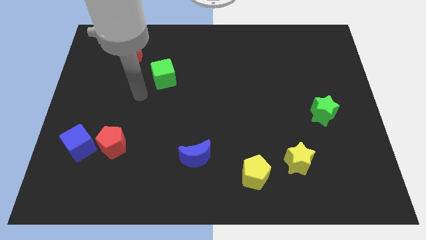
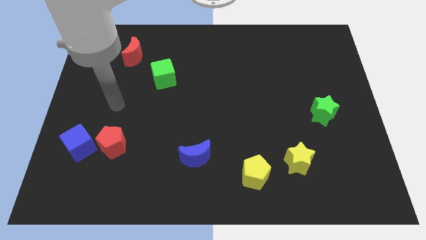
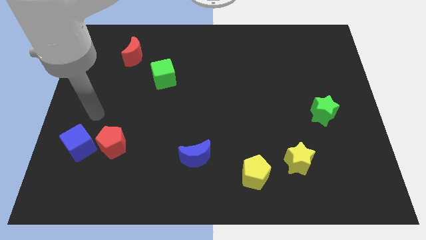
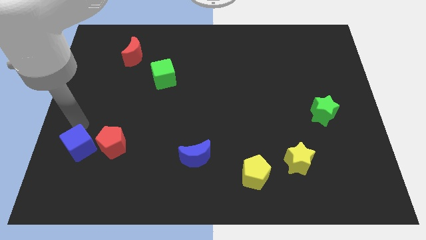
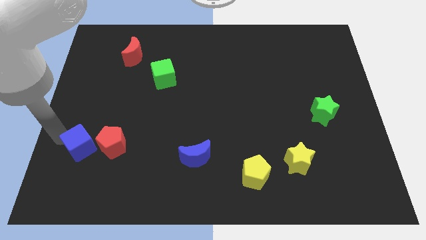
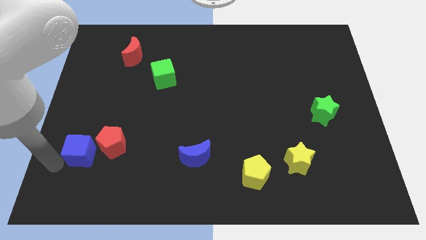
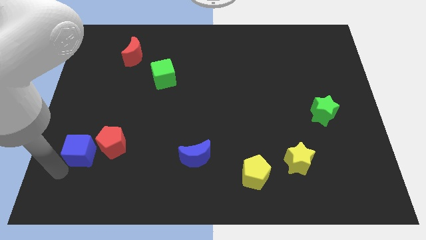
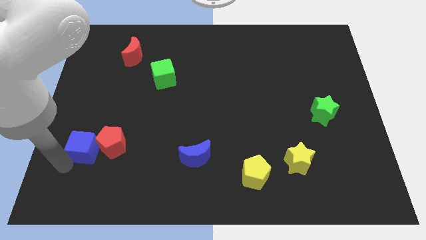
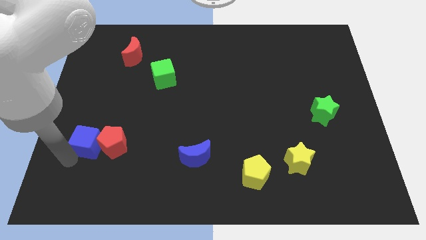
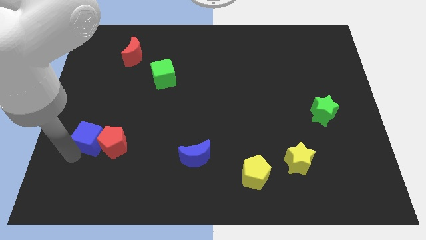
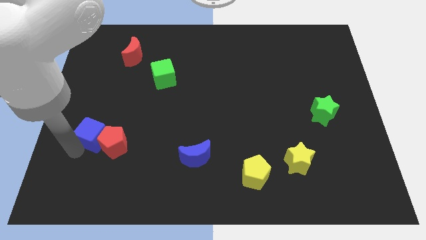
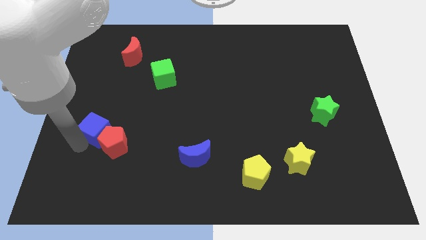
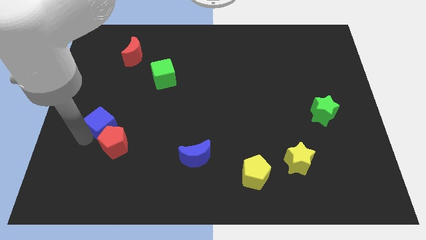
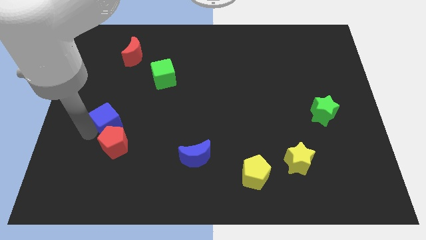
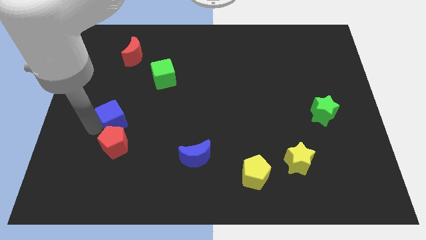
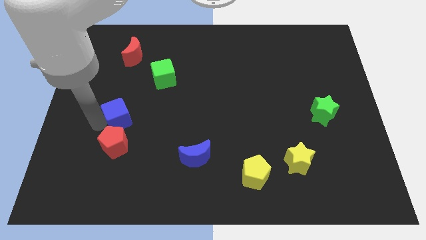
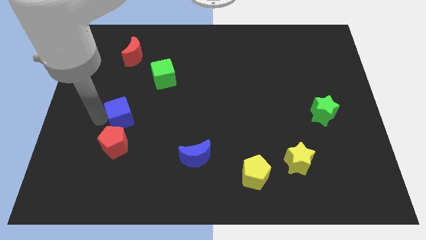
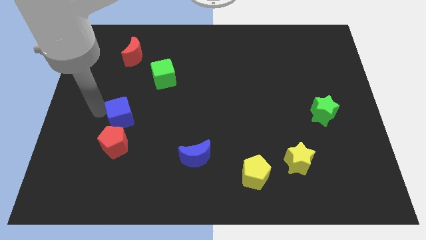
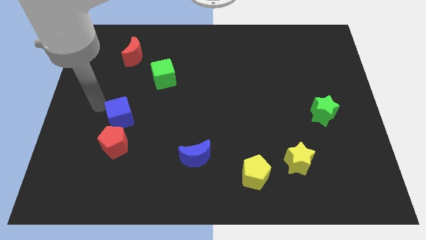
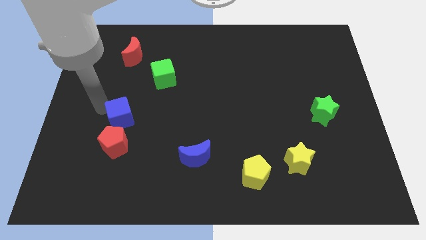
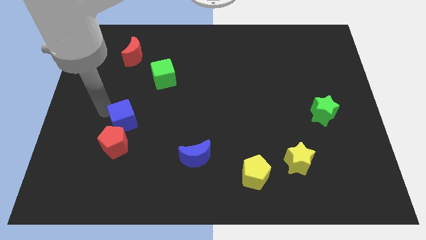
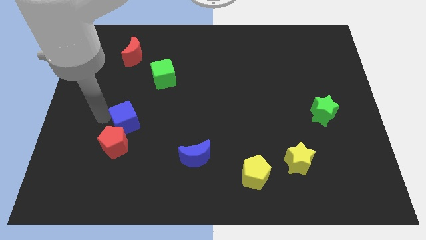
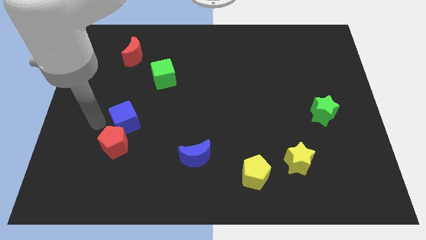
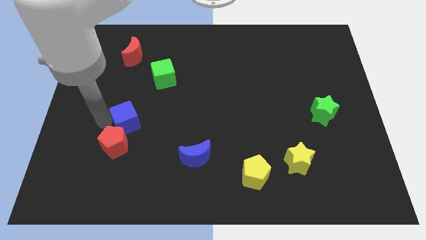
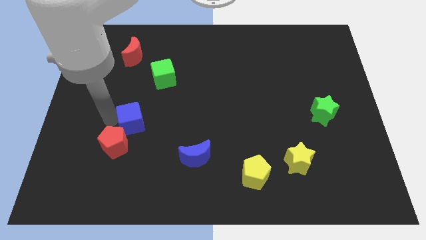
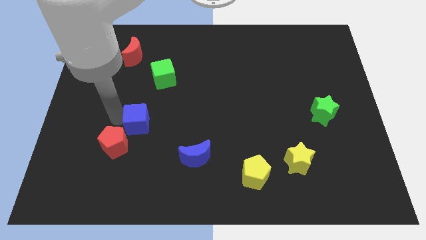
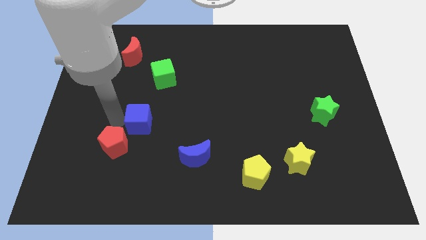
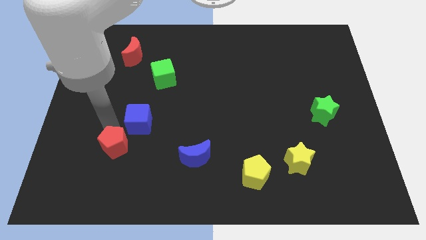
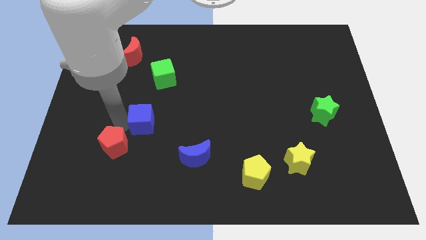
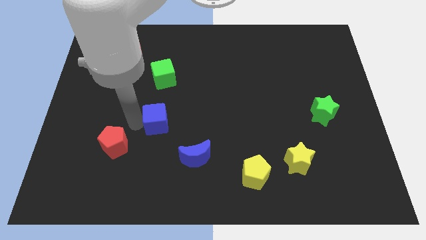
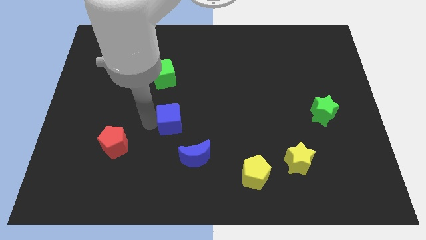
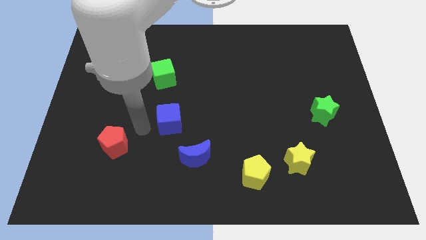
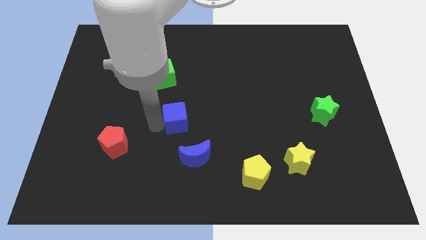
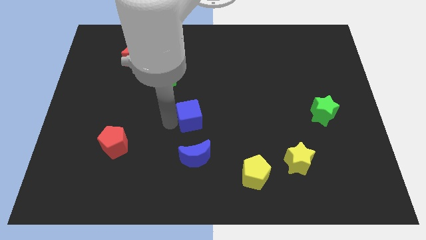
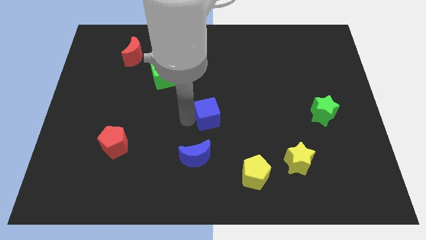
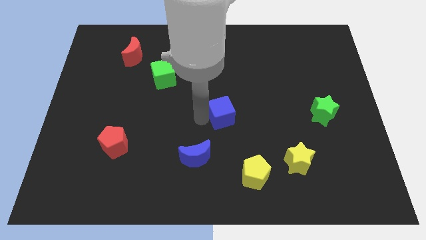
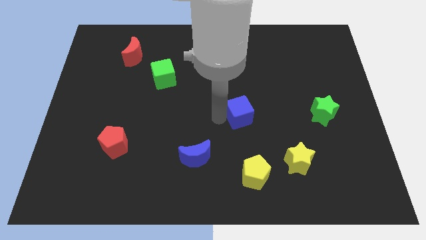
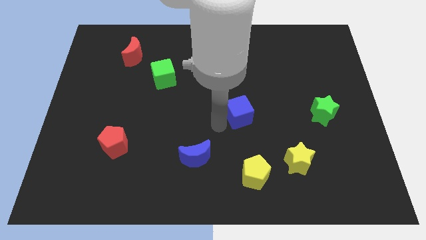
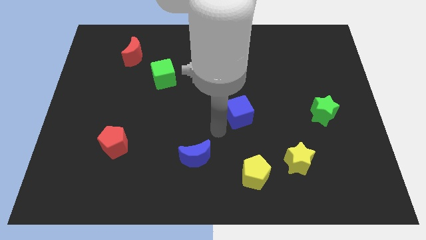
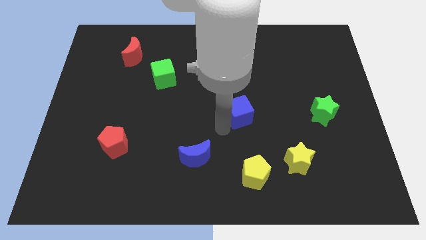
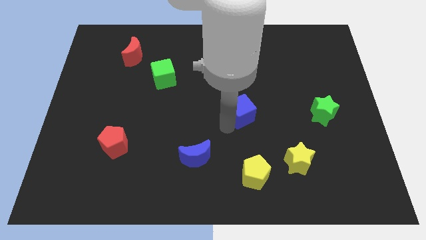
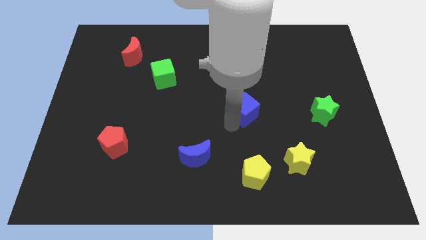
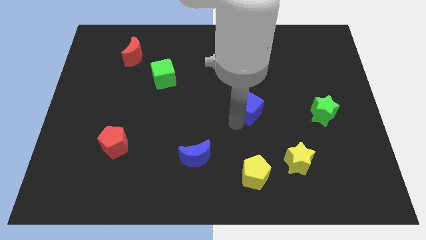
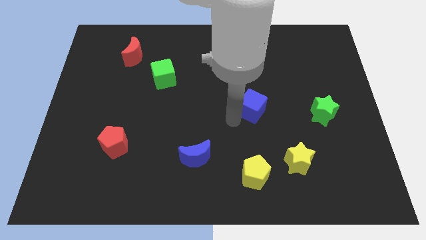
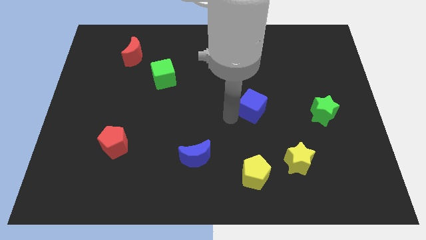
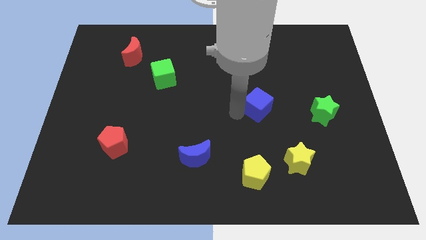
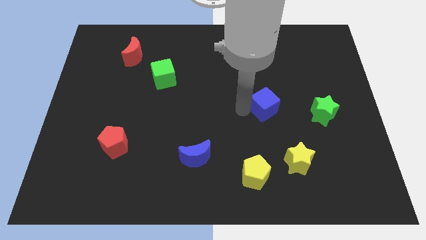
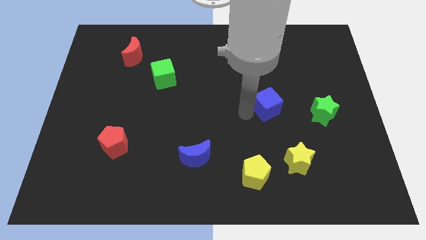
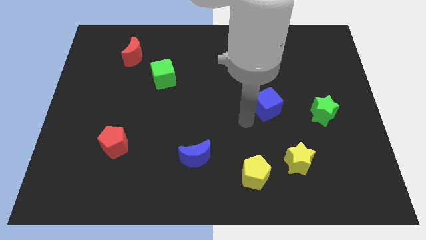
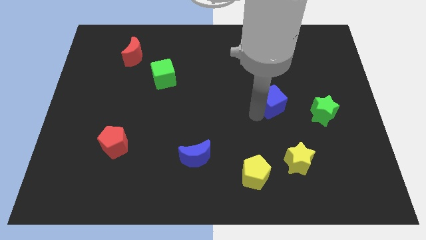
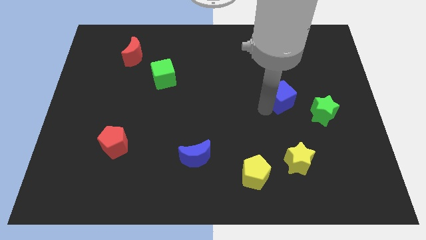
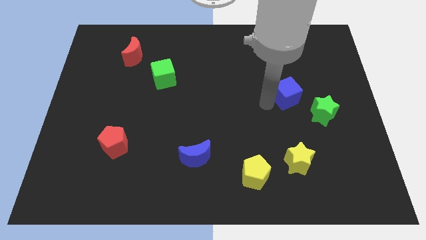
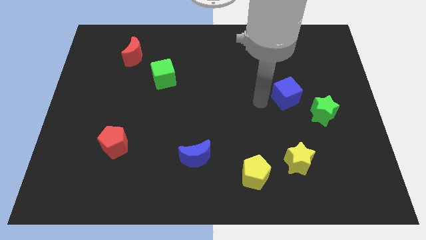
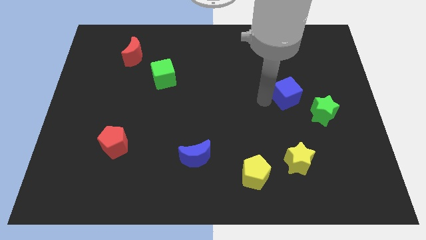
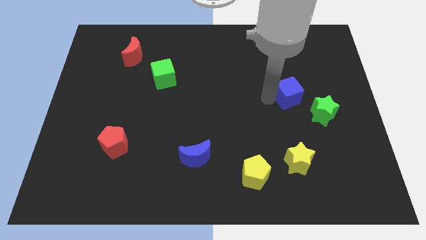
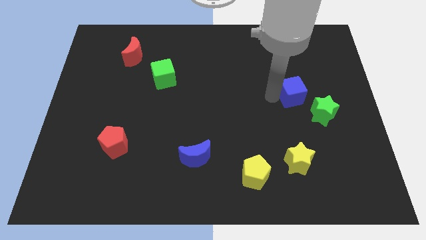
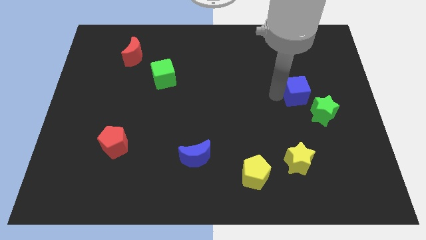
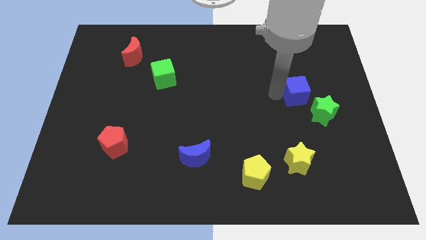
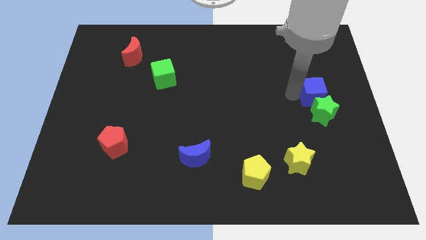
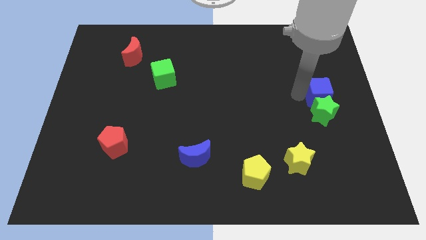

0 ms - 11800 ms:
slide the blue cube to the right side

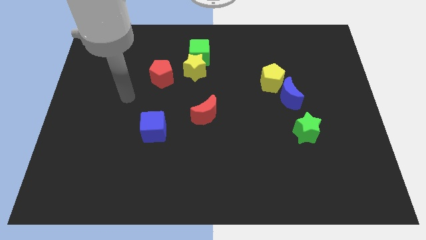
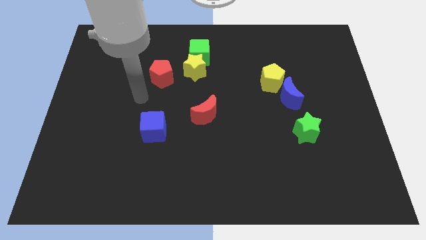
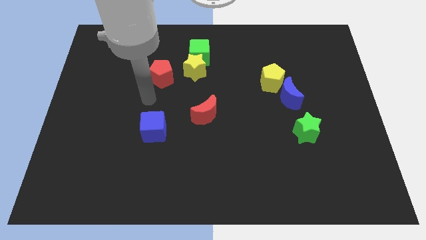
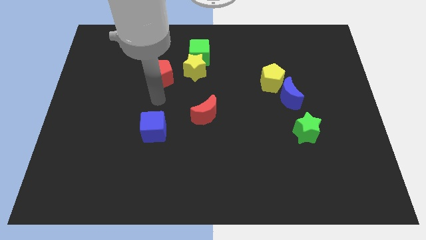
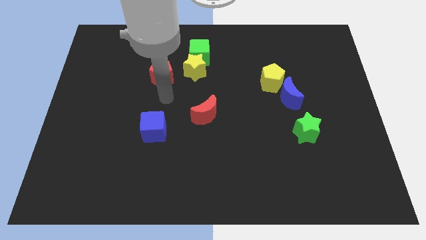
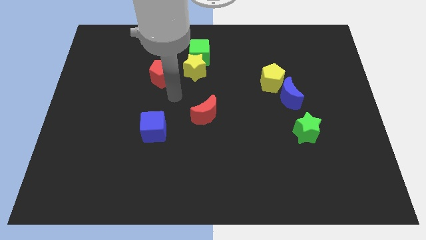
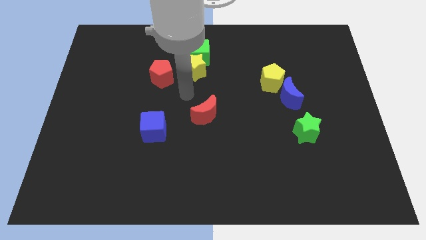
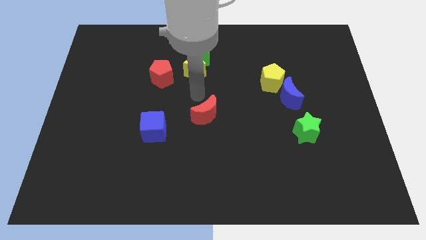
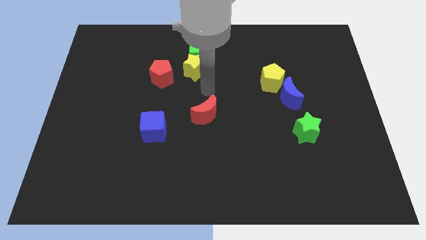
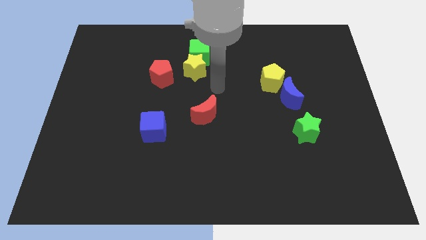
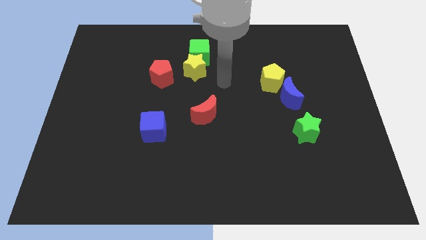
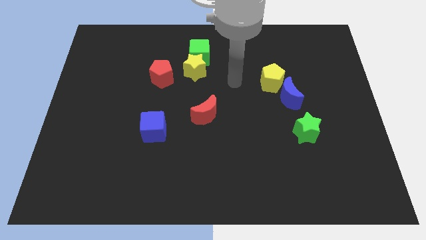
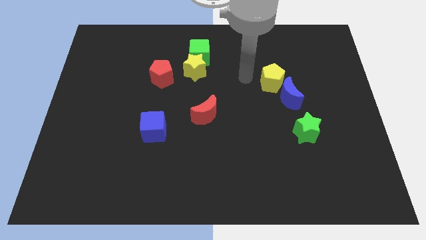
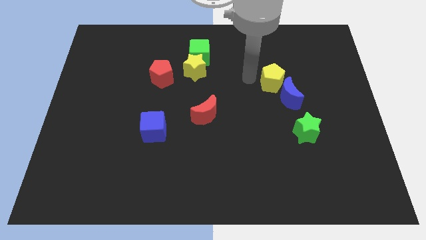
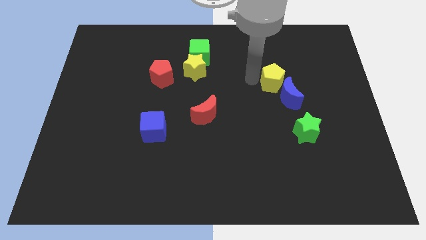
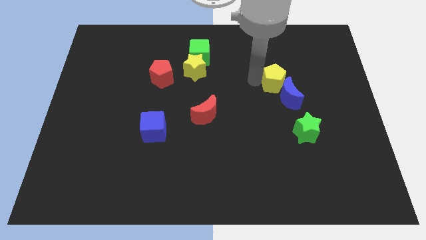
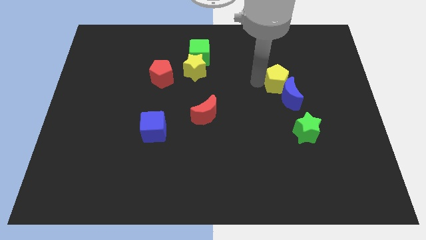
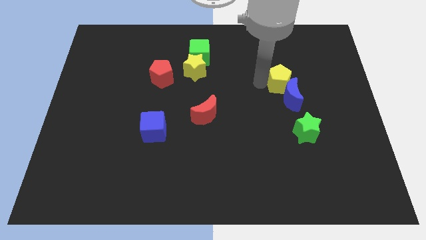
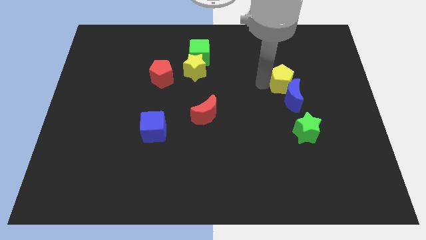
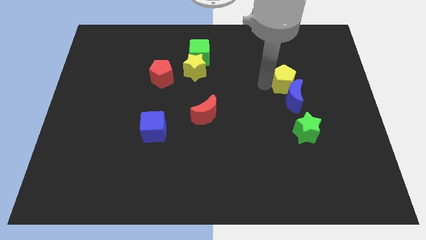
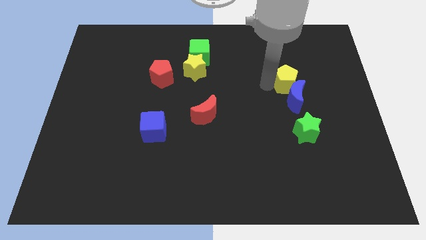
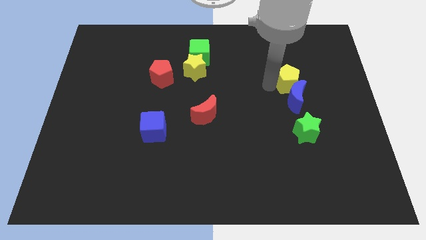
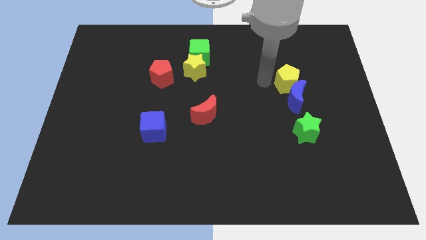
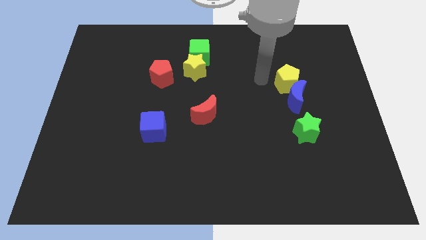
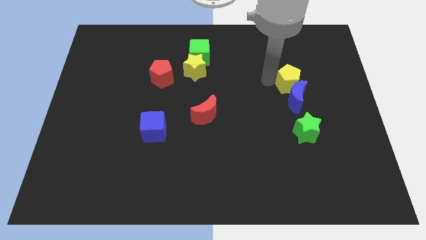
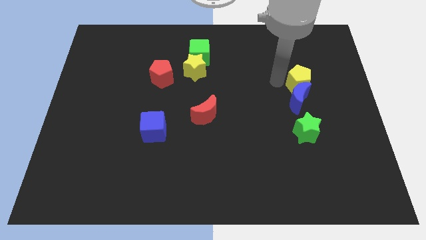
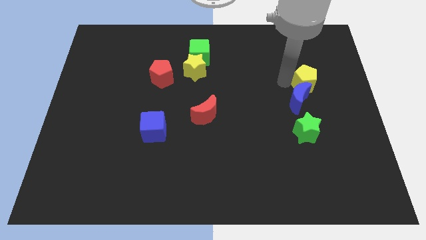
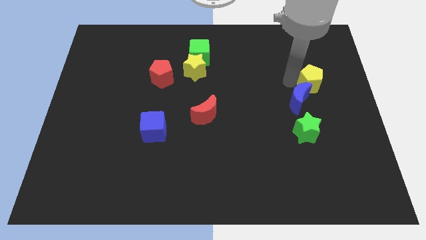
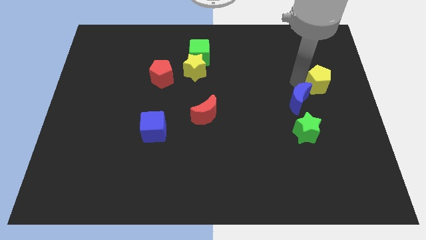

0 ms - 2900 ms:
put the yellow pentagon to the right side of the board
